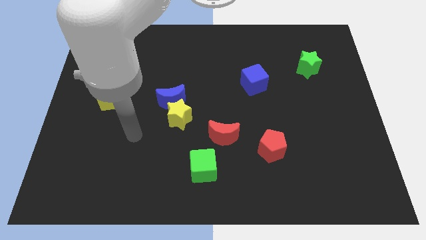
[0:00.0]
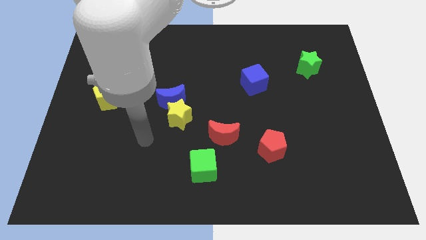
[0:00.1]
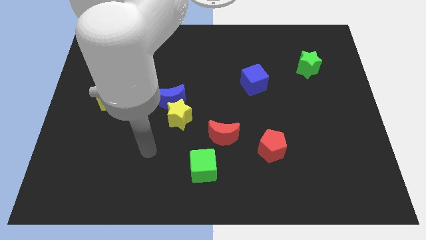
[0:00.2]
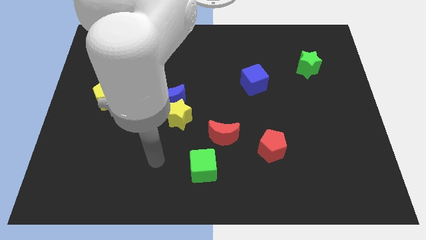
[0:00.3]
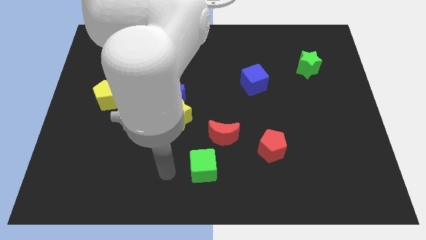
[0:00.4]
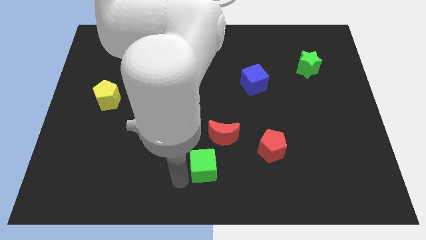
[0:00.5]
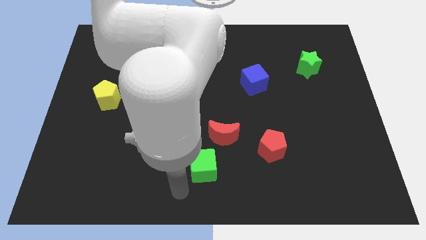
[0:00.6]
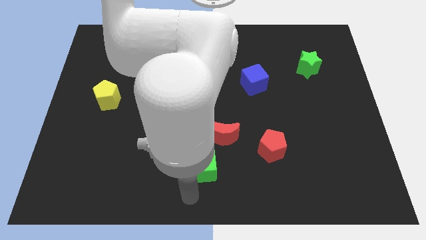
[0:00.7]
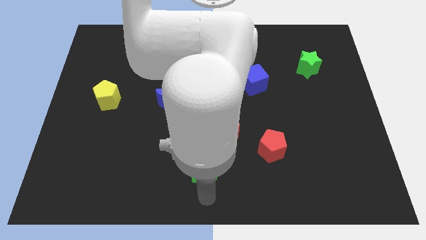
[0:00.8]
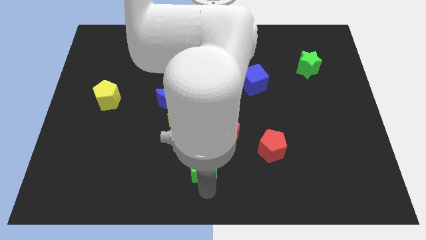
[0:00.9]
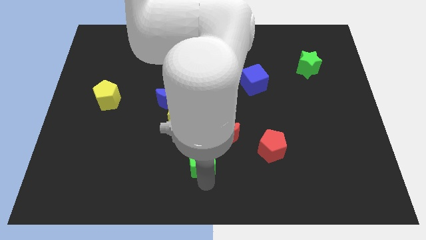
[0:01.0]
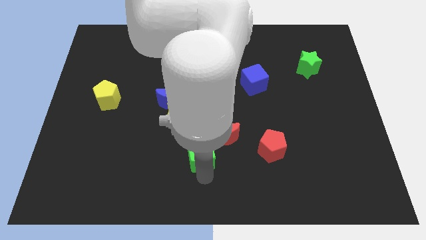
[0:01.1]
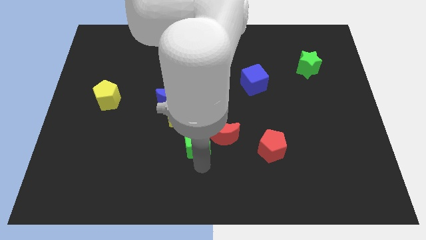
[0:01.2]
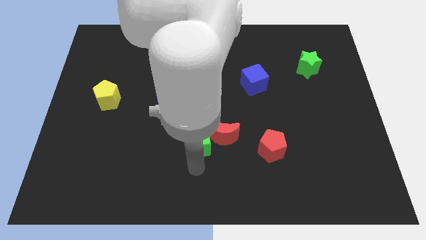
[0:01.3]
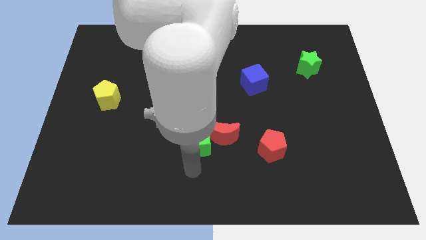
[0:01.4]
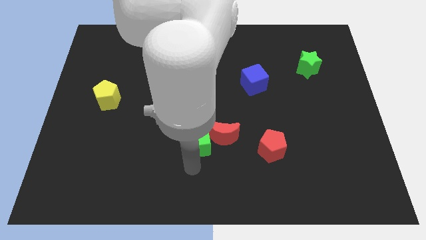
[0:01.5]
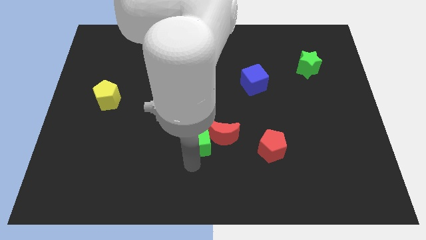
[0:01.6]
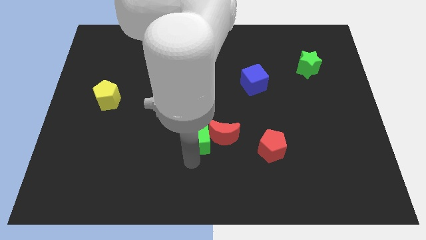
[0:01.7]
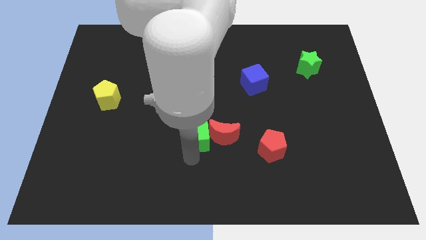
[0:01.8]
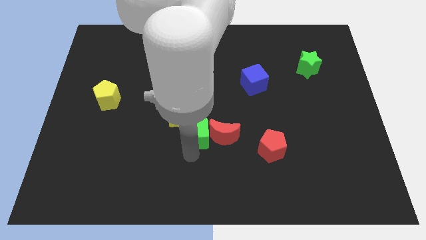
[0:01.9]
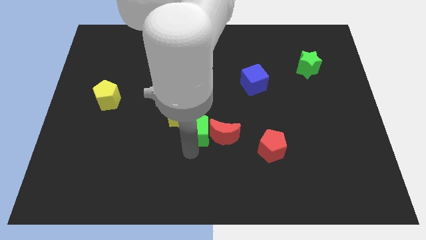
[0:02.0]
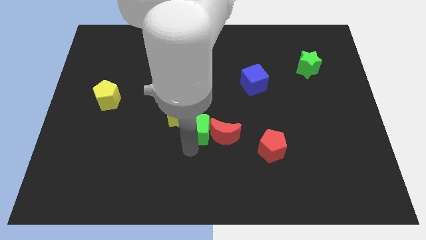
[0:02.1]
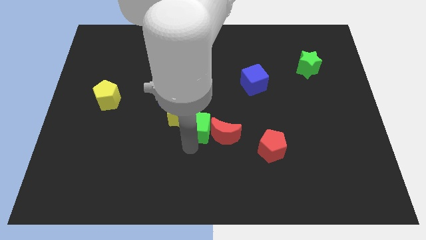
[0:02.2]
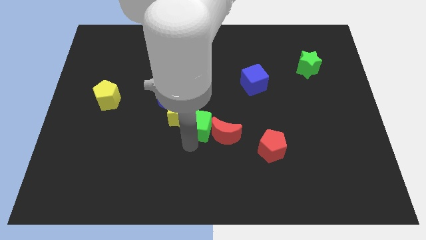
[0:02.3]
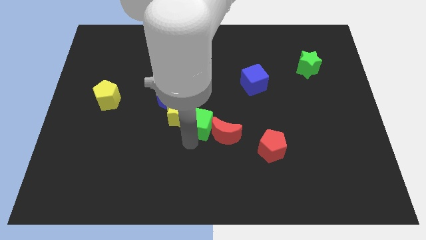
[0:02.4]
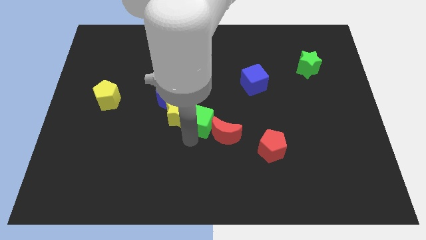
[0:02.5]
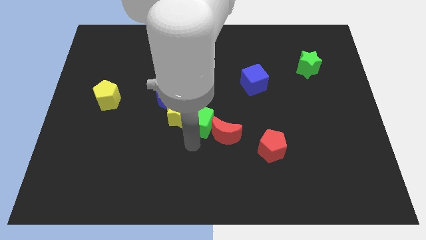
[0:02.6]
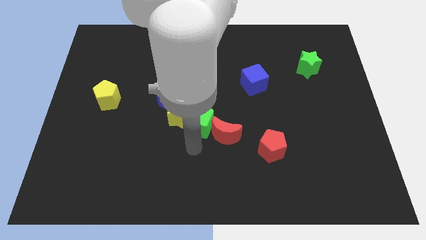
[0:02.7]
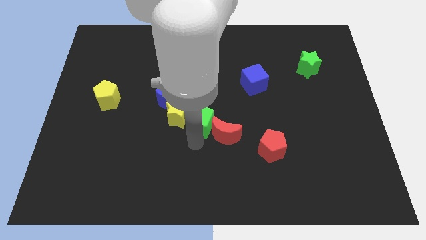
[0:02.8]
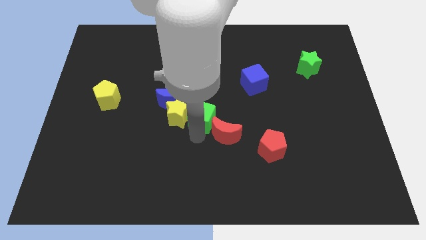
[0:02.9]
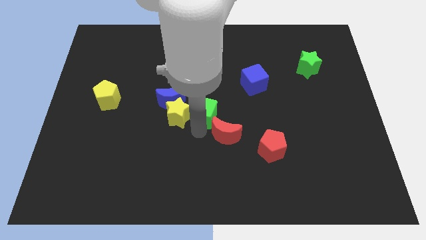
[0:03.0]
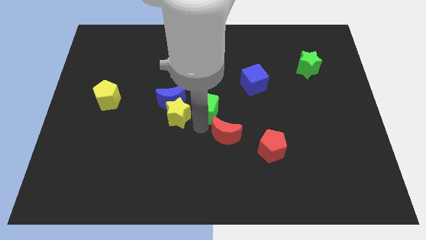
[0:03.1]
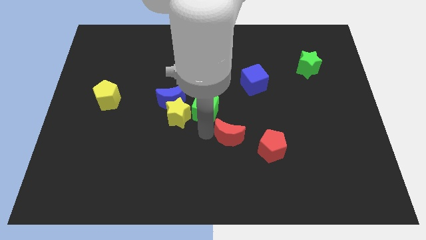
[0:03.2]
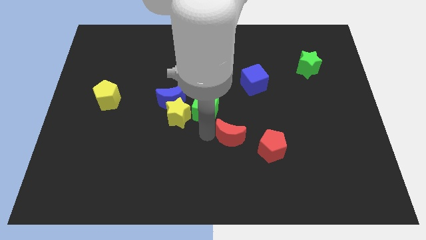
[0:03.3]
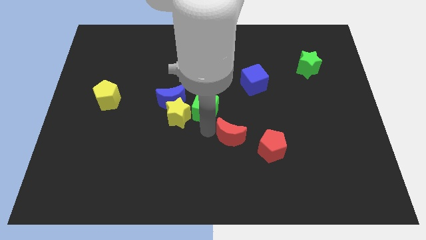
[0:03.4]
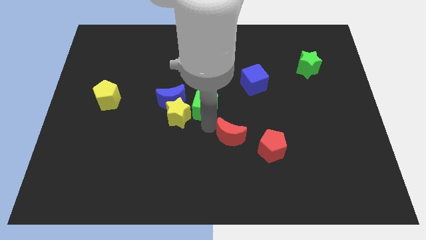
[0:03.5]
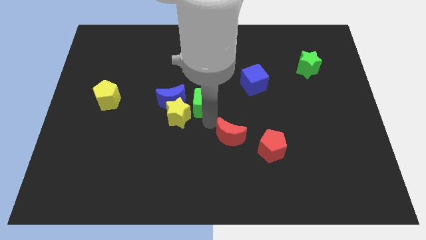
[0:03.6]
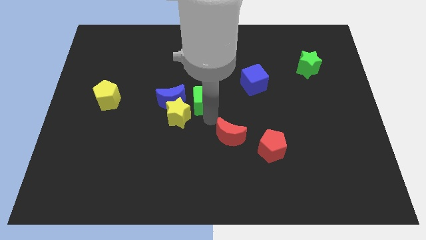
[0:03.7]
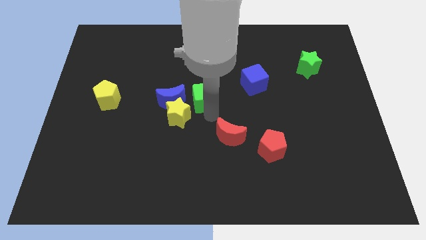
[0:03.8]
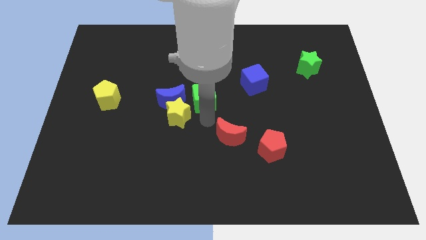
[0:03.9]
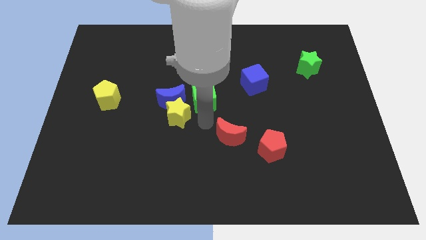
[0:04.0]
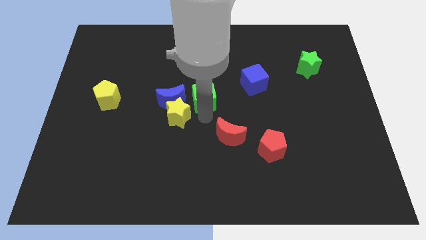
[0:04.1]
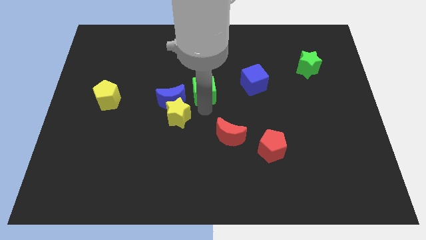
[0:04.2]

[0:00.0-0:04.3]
move the green cube upwards

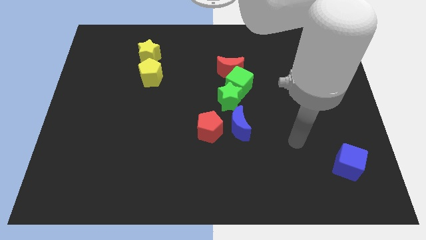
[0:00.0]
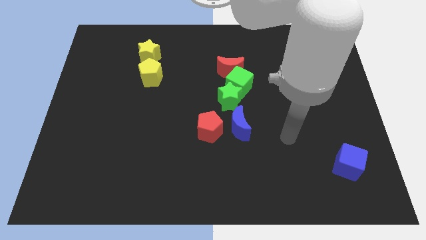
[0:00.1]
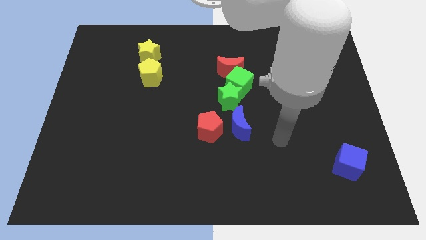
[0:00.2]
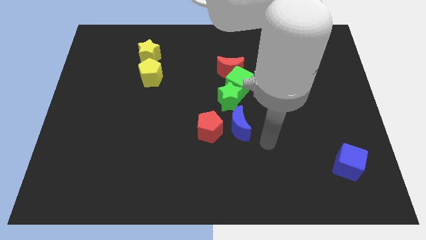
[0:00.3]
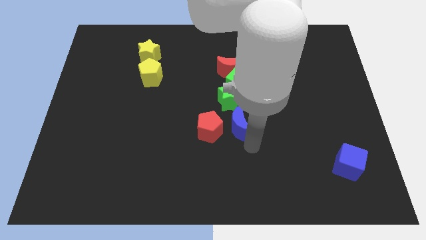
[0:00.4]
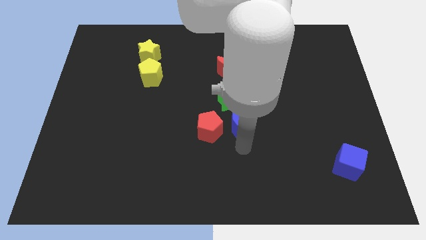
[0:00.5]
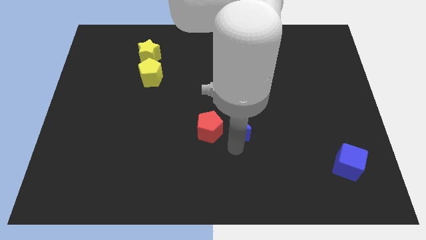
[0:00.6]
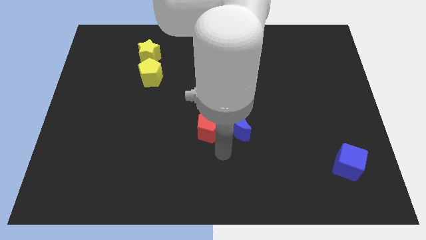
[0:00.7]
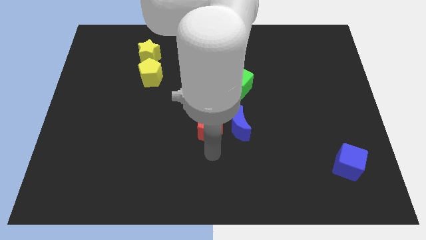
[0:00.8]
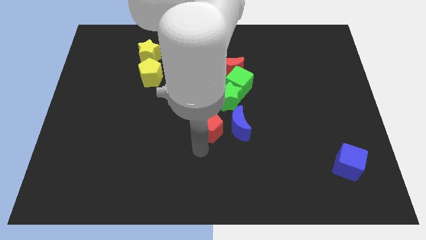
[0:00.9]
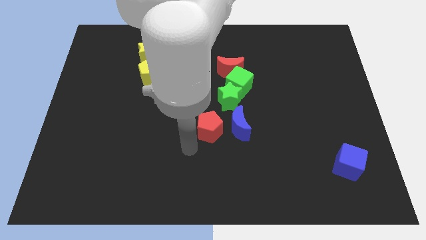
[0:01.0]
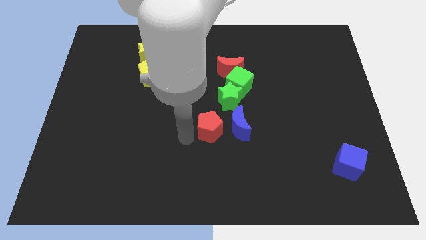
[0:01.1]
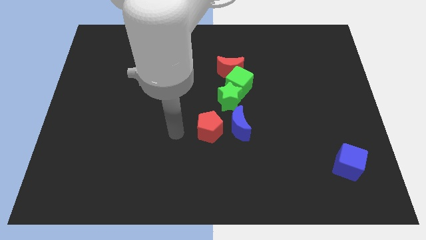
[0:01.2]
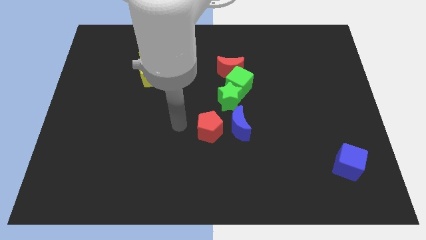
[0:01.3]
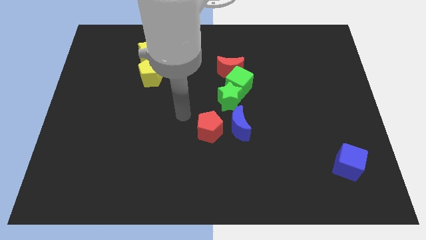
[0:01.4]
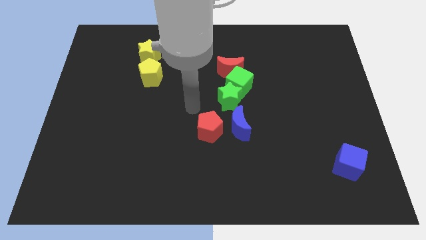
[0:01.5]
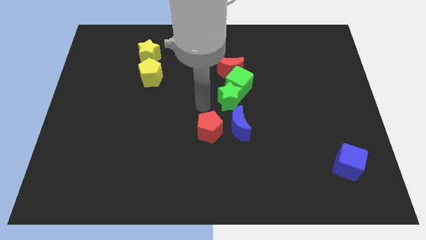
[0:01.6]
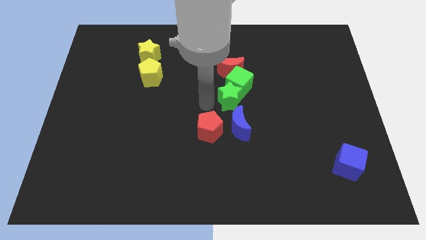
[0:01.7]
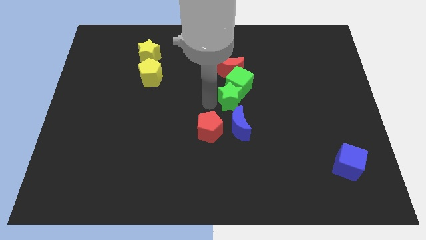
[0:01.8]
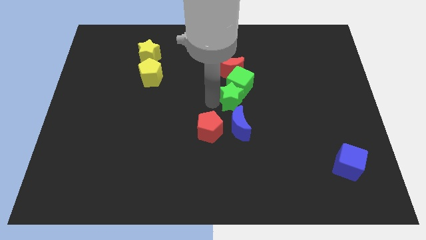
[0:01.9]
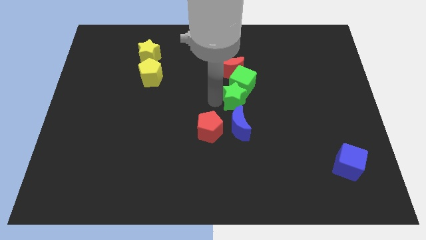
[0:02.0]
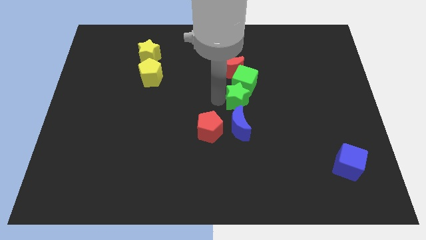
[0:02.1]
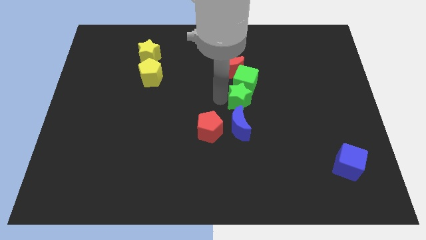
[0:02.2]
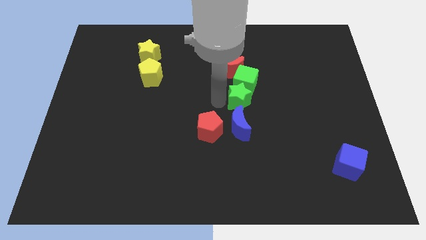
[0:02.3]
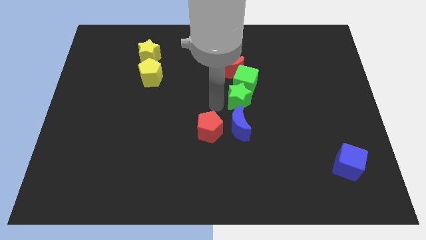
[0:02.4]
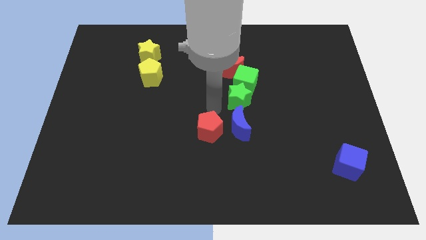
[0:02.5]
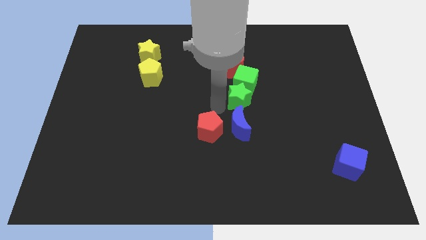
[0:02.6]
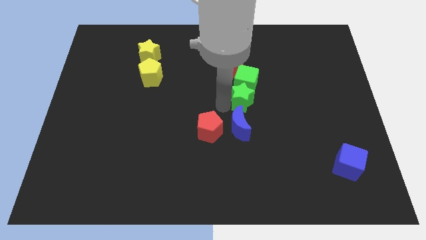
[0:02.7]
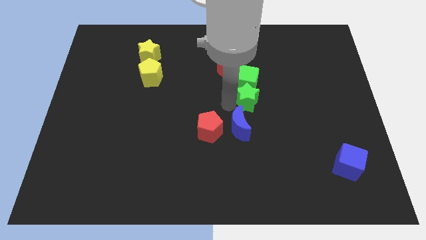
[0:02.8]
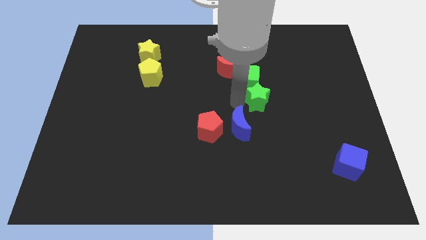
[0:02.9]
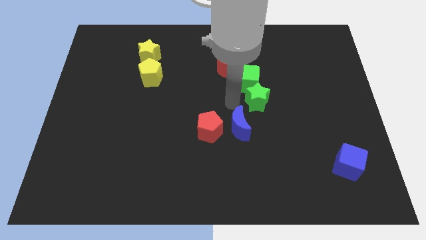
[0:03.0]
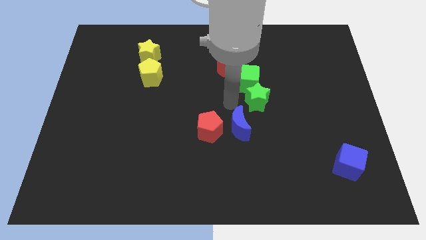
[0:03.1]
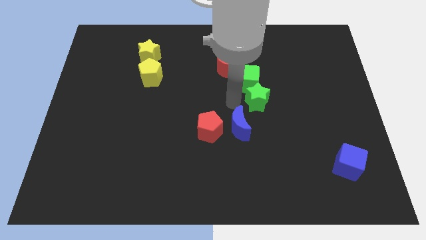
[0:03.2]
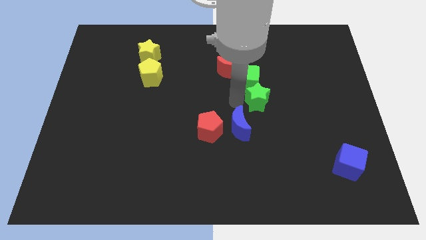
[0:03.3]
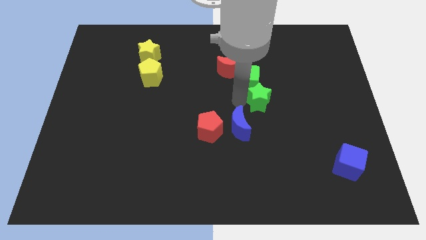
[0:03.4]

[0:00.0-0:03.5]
push the green star a little to the right
